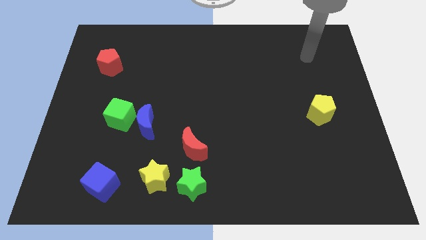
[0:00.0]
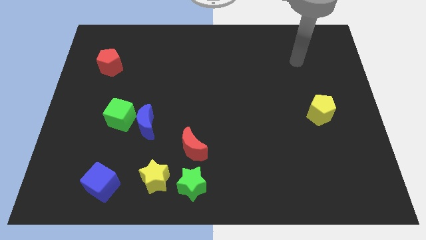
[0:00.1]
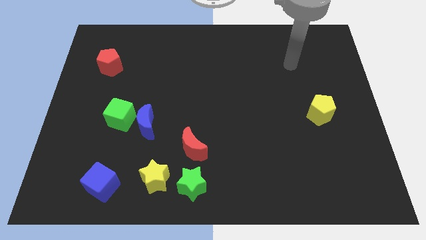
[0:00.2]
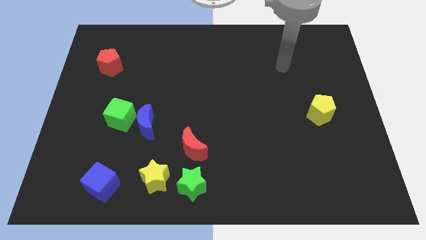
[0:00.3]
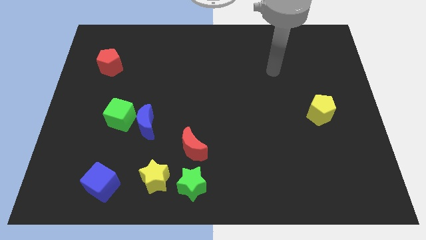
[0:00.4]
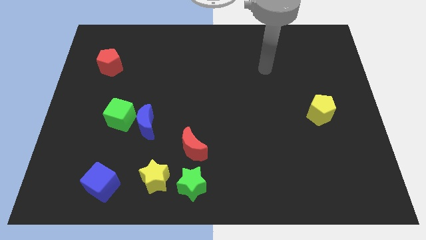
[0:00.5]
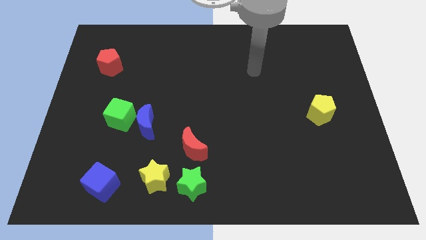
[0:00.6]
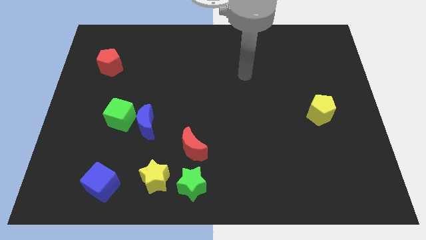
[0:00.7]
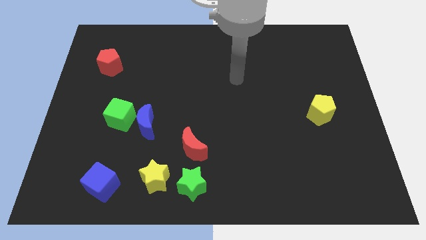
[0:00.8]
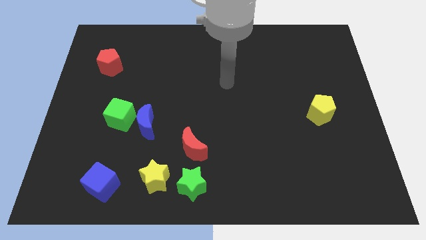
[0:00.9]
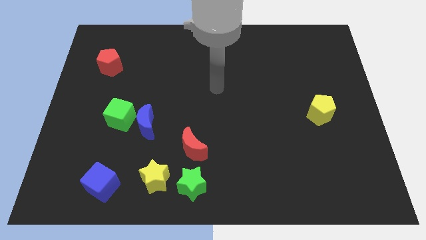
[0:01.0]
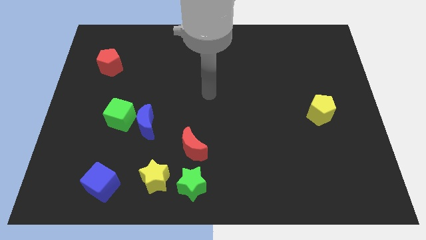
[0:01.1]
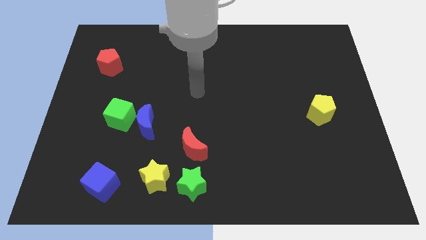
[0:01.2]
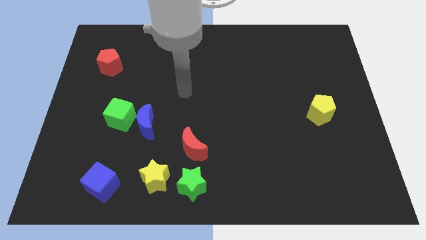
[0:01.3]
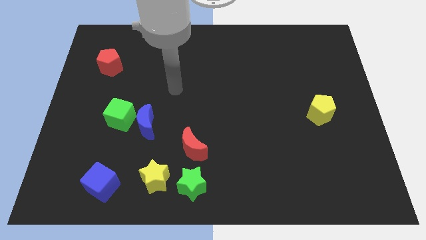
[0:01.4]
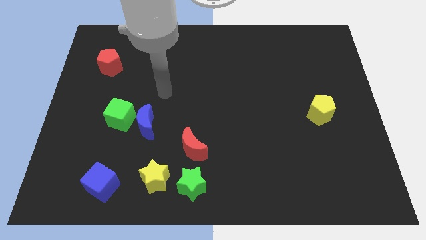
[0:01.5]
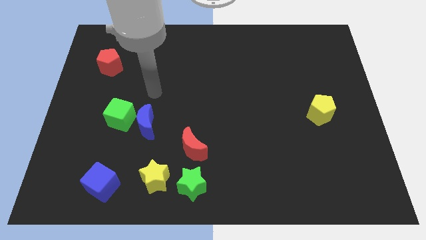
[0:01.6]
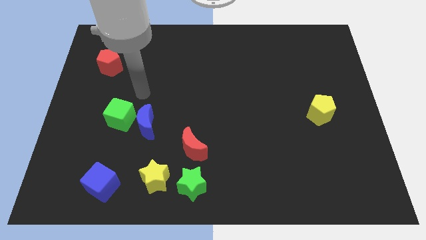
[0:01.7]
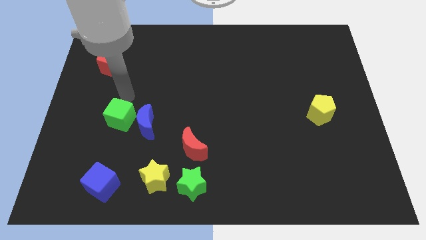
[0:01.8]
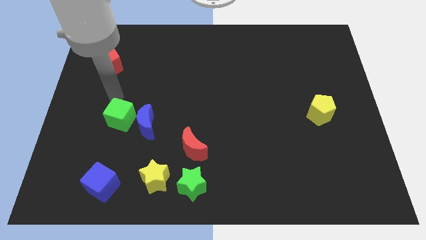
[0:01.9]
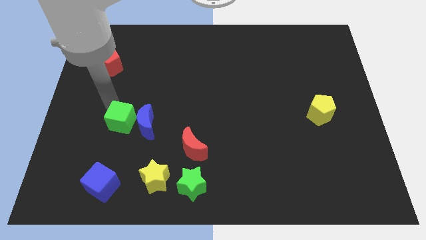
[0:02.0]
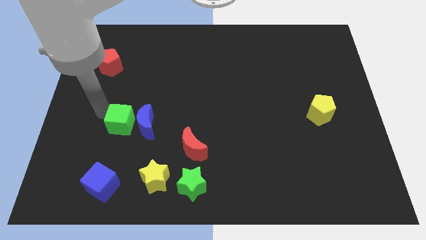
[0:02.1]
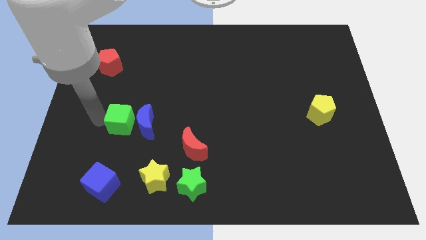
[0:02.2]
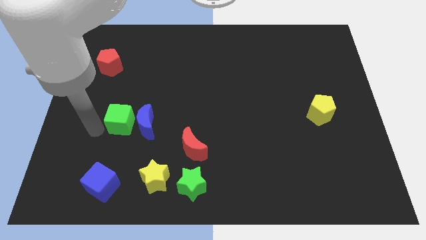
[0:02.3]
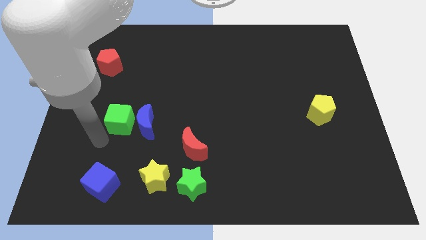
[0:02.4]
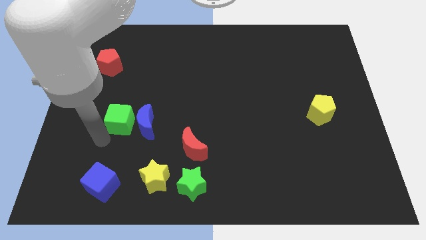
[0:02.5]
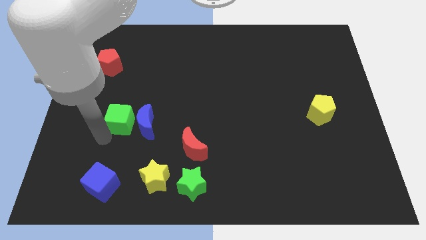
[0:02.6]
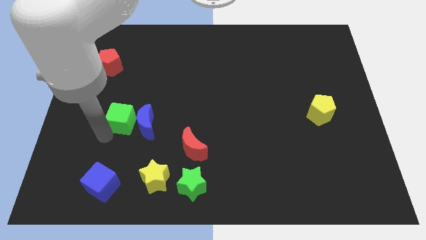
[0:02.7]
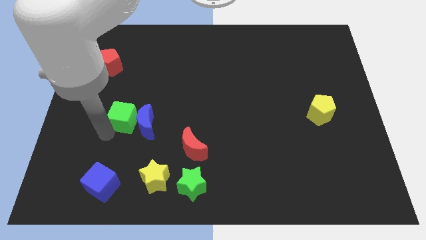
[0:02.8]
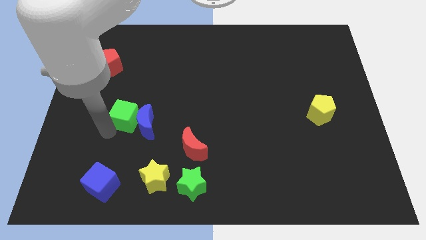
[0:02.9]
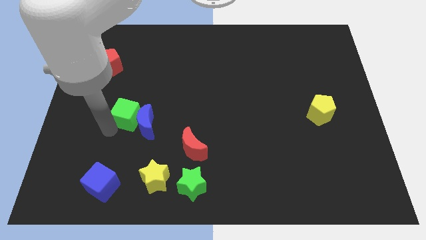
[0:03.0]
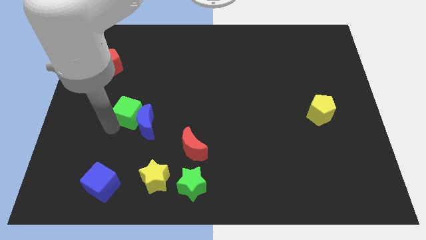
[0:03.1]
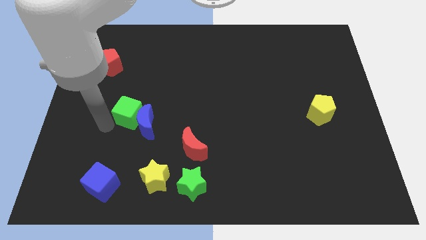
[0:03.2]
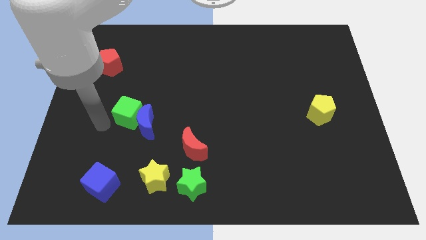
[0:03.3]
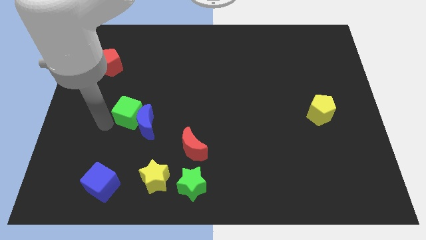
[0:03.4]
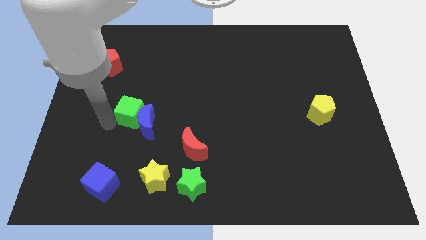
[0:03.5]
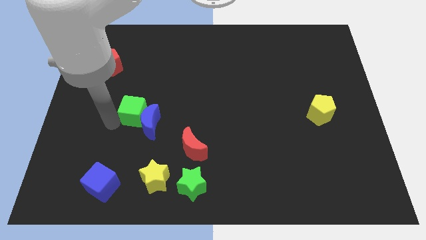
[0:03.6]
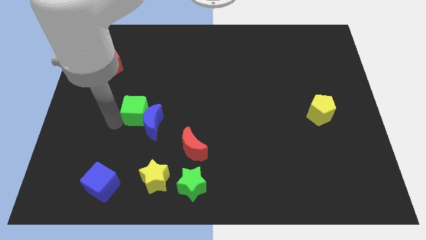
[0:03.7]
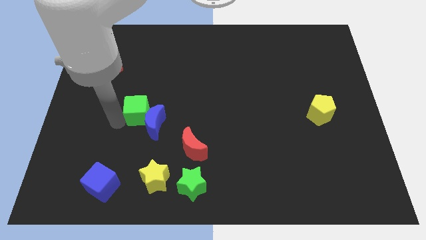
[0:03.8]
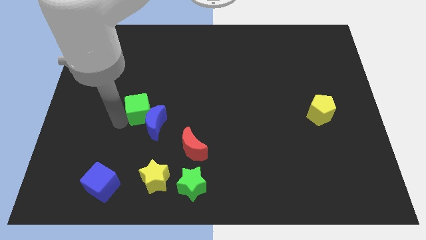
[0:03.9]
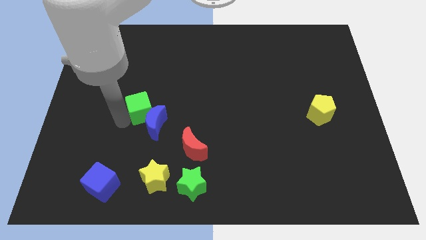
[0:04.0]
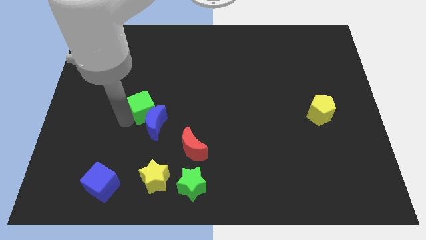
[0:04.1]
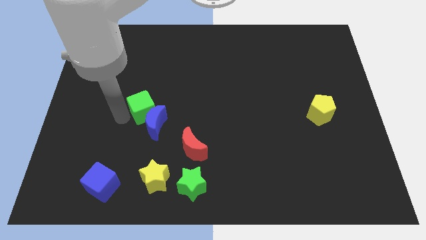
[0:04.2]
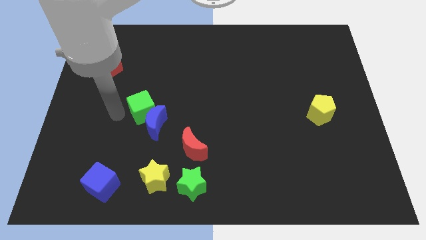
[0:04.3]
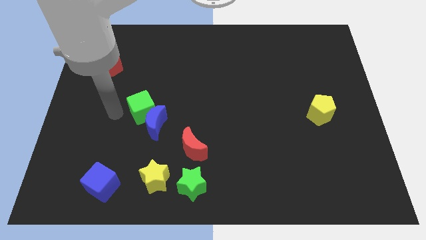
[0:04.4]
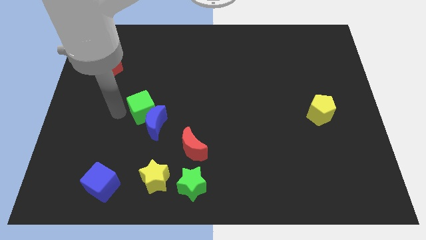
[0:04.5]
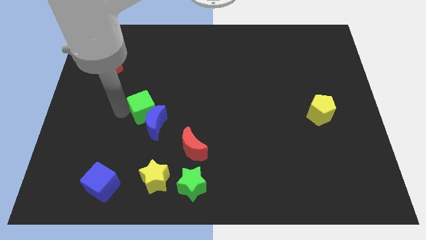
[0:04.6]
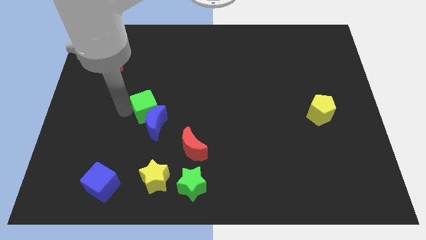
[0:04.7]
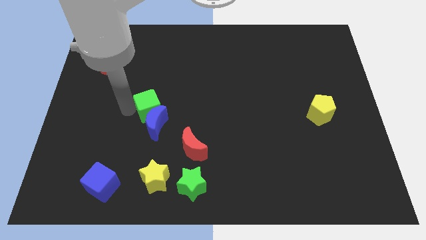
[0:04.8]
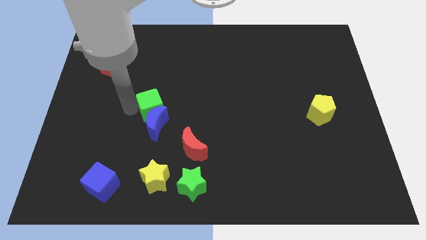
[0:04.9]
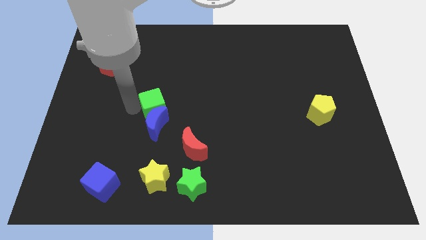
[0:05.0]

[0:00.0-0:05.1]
slightly slide the green cube right

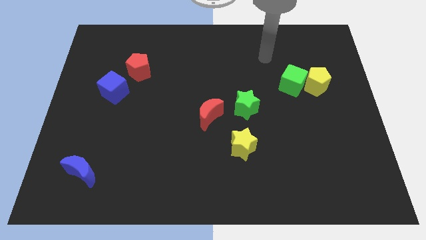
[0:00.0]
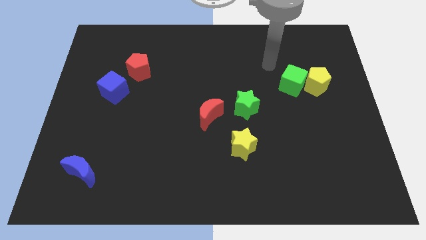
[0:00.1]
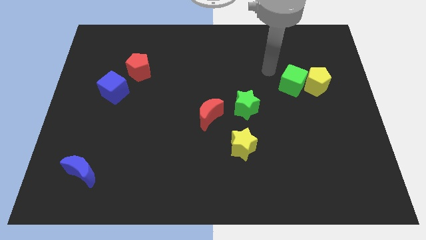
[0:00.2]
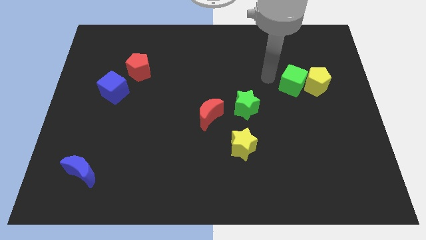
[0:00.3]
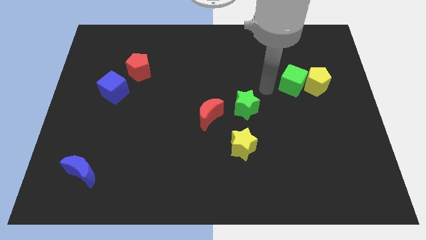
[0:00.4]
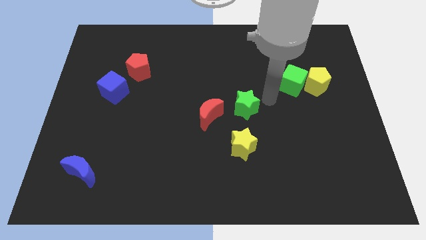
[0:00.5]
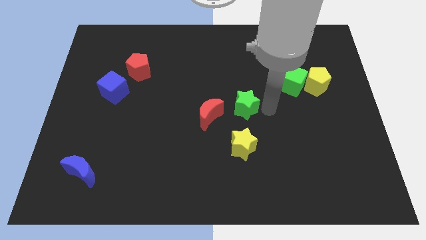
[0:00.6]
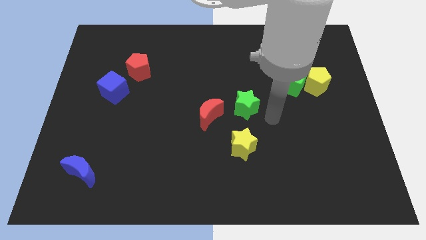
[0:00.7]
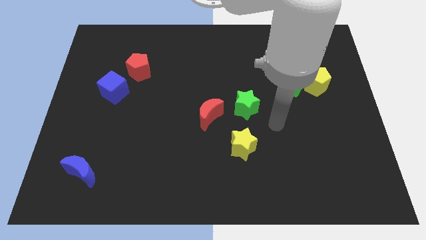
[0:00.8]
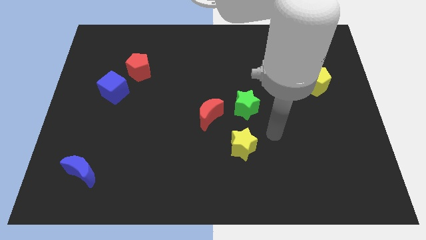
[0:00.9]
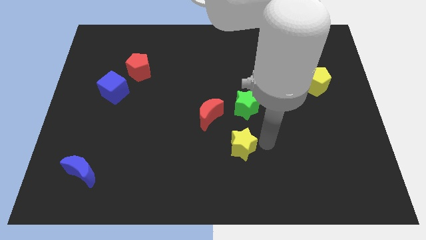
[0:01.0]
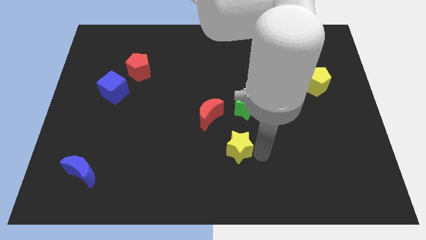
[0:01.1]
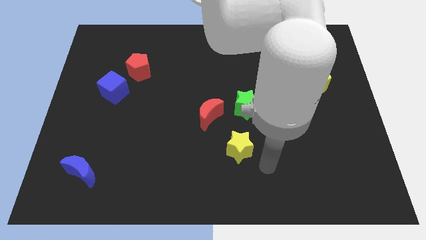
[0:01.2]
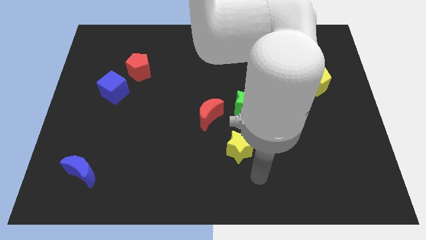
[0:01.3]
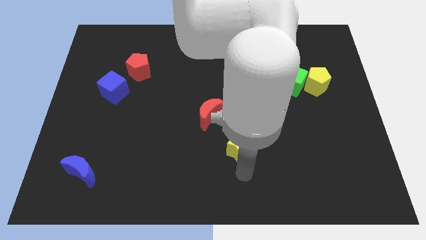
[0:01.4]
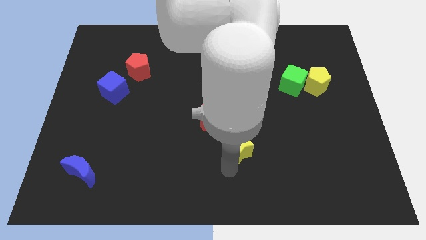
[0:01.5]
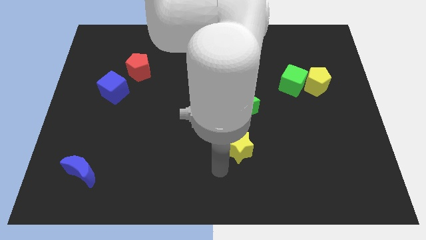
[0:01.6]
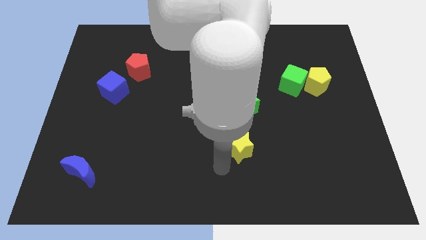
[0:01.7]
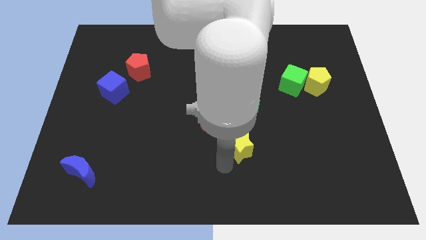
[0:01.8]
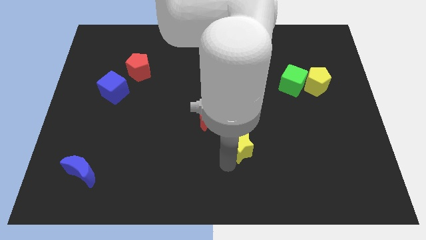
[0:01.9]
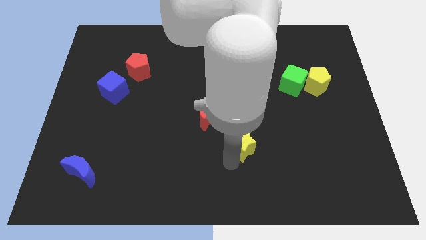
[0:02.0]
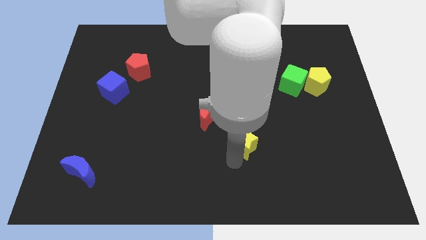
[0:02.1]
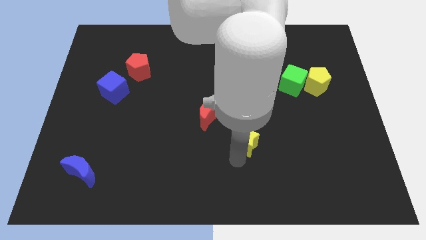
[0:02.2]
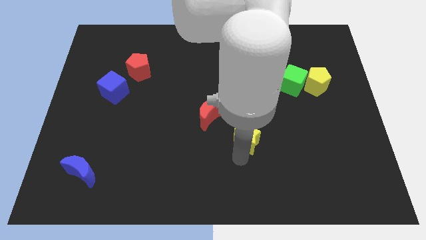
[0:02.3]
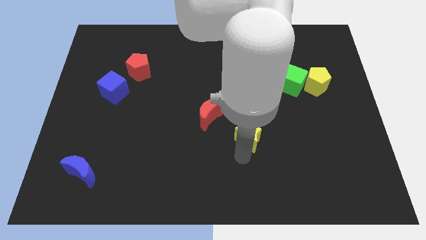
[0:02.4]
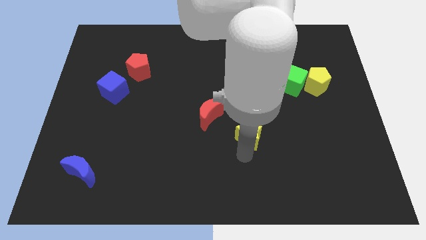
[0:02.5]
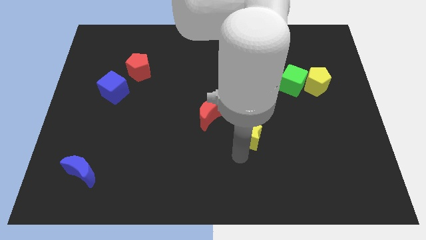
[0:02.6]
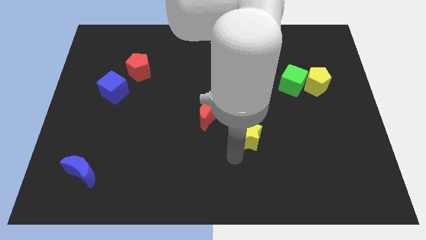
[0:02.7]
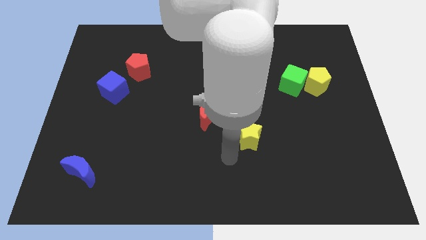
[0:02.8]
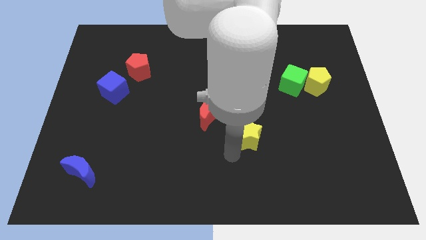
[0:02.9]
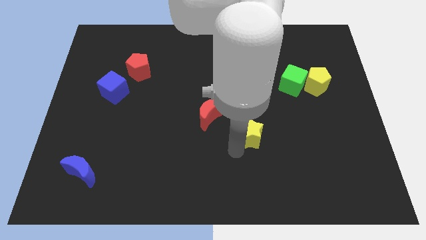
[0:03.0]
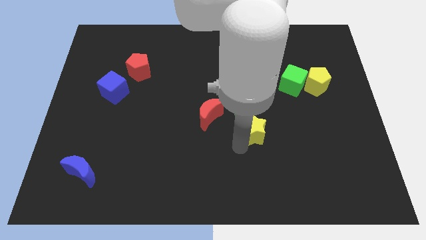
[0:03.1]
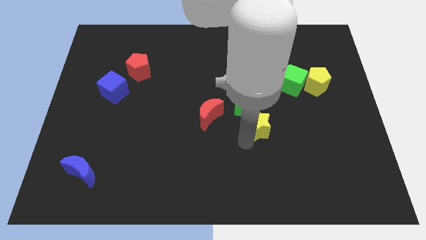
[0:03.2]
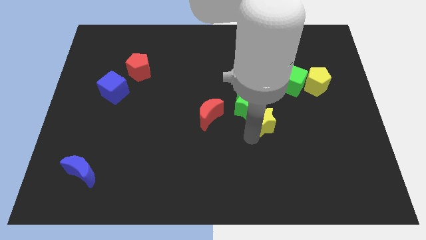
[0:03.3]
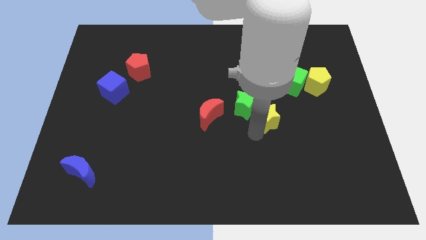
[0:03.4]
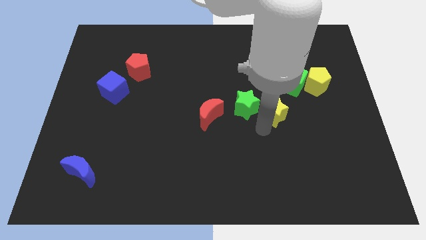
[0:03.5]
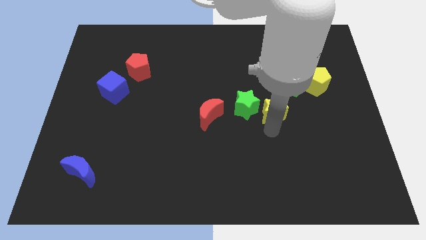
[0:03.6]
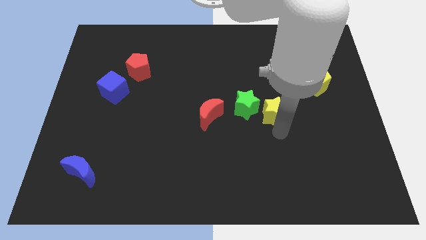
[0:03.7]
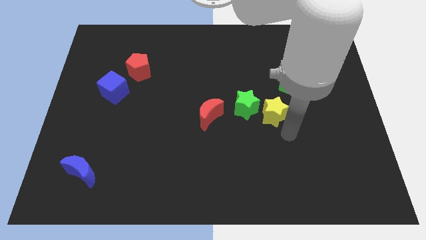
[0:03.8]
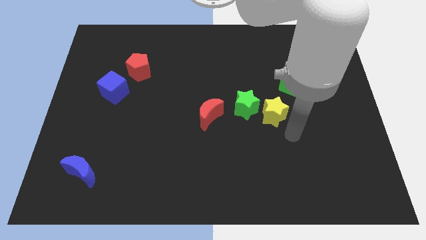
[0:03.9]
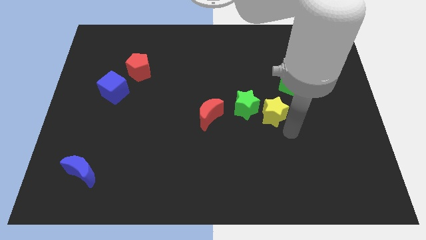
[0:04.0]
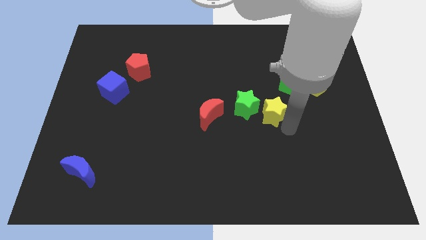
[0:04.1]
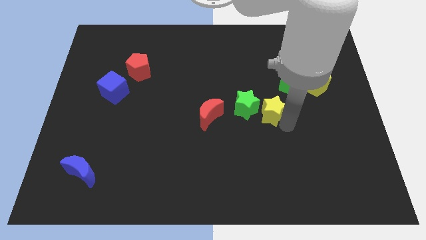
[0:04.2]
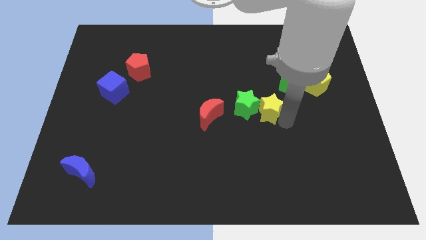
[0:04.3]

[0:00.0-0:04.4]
slide the yellow star upwards a bit
